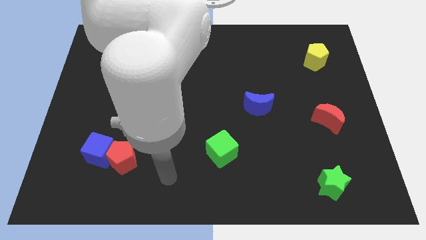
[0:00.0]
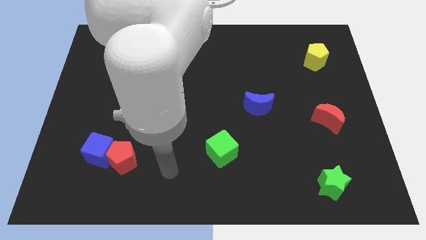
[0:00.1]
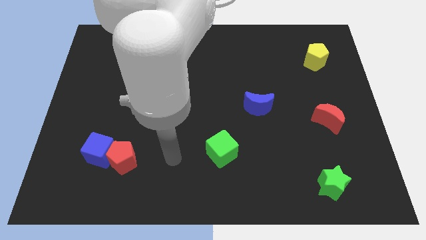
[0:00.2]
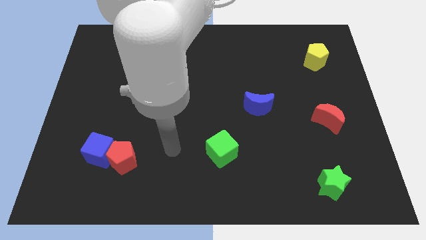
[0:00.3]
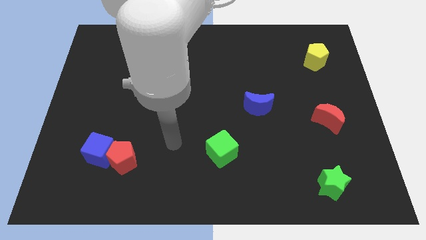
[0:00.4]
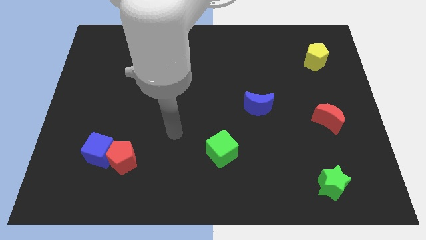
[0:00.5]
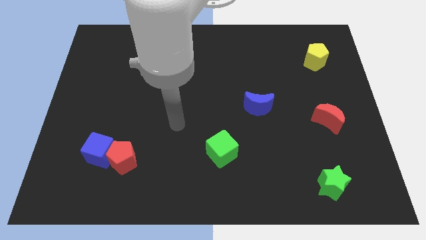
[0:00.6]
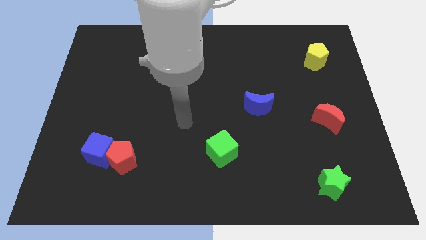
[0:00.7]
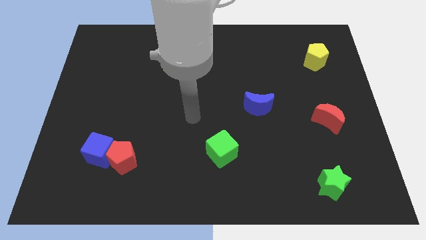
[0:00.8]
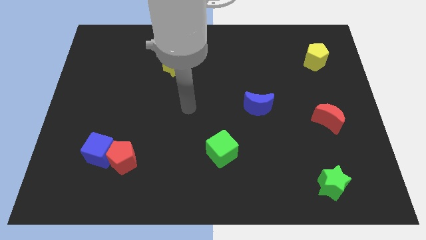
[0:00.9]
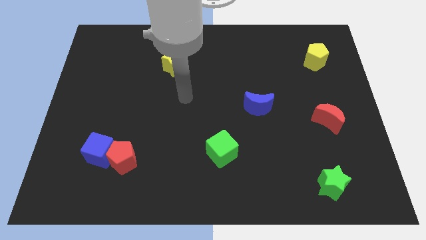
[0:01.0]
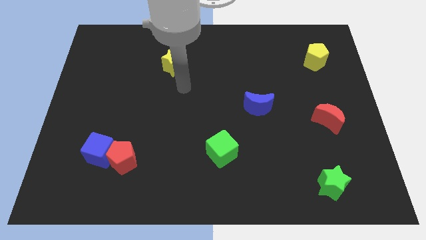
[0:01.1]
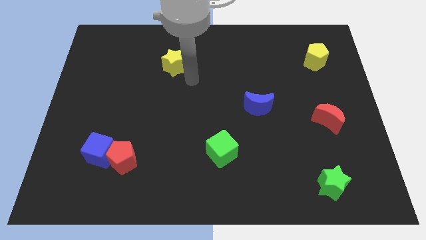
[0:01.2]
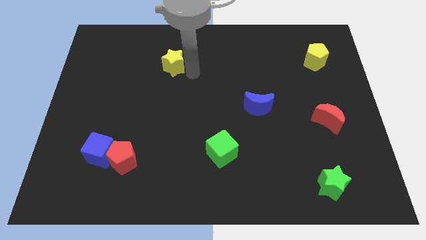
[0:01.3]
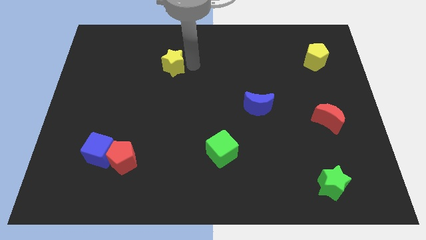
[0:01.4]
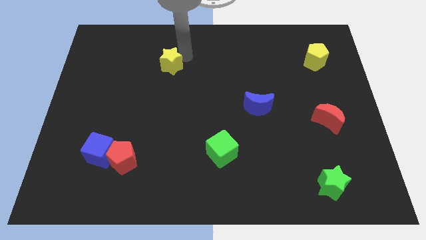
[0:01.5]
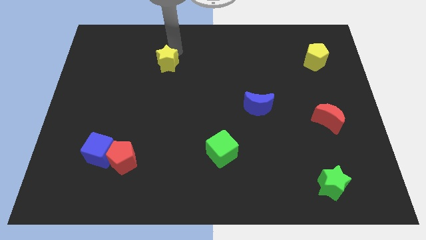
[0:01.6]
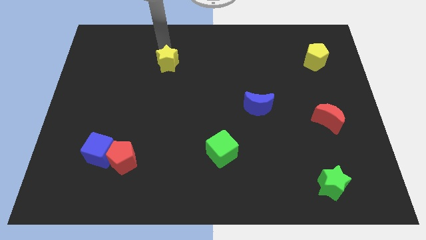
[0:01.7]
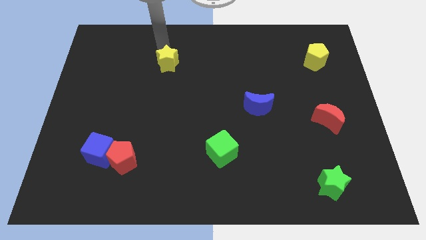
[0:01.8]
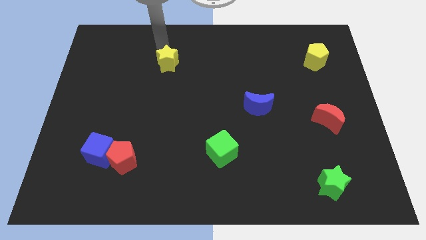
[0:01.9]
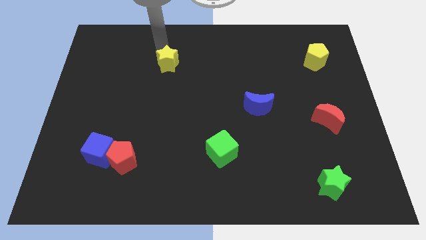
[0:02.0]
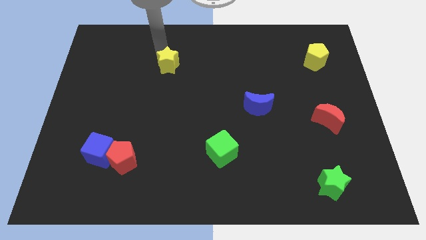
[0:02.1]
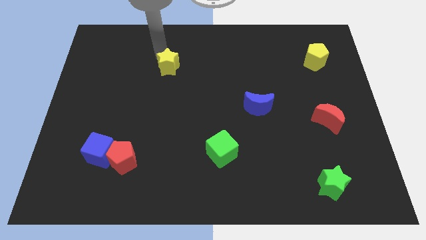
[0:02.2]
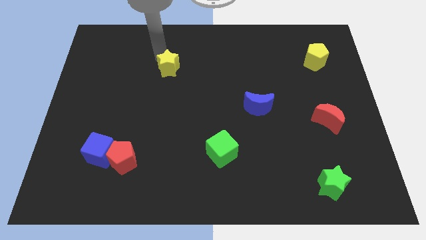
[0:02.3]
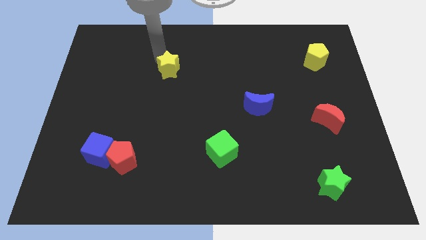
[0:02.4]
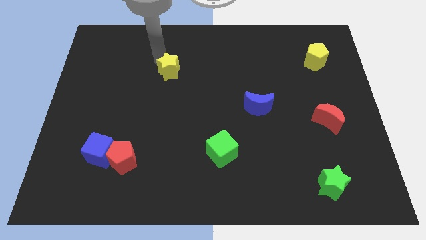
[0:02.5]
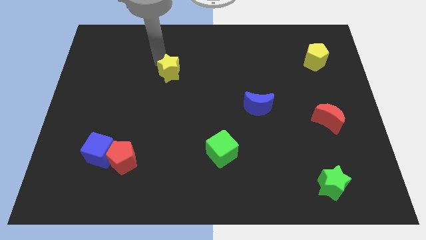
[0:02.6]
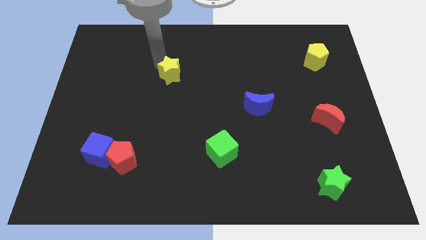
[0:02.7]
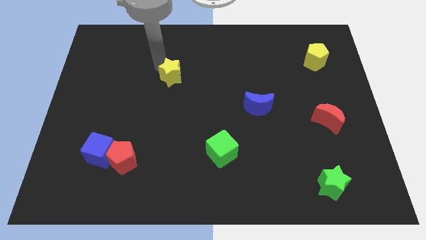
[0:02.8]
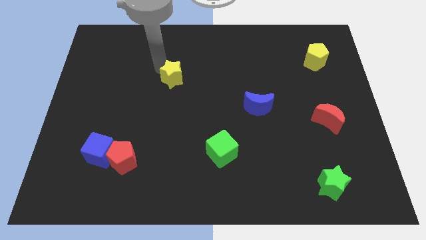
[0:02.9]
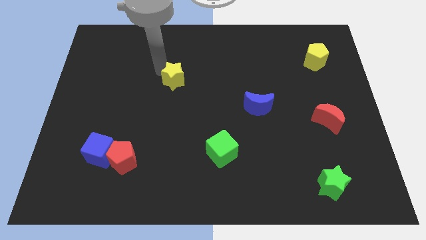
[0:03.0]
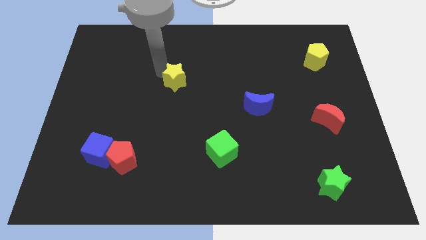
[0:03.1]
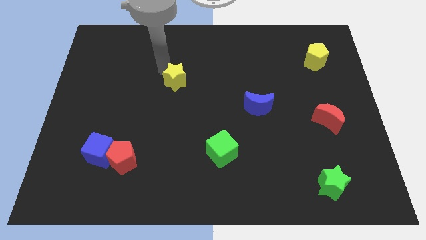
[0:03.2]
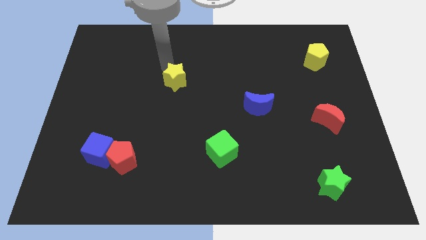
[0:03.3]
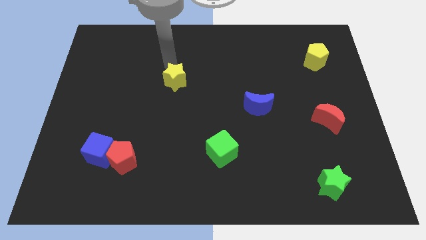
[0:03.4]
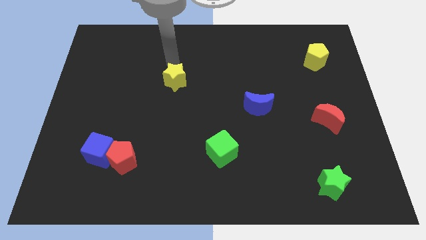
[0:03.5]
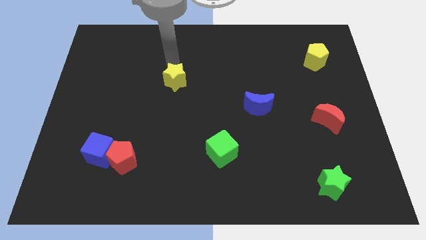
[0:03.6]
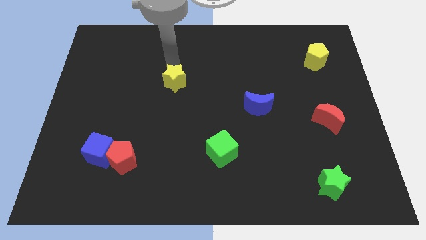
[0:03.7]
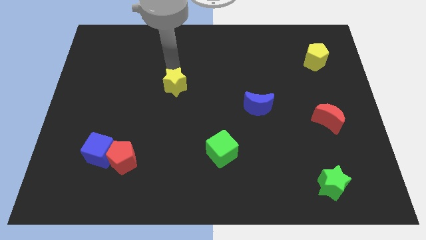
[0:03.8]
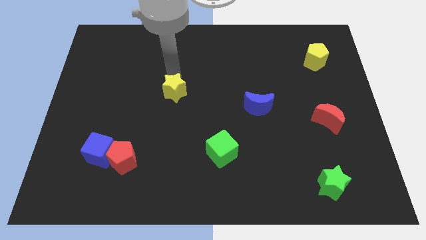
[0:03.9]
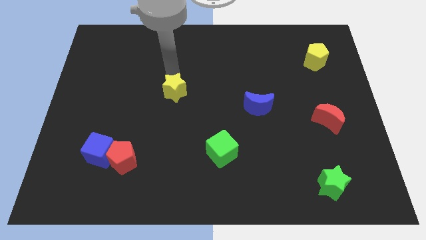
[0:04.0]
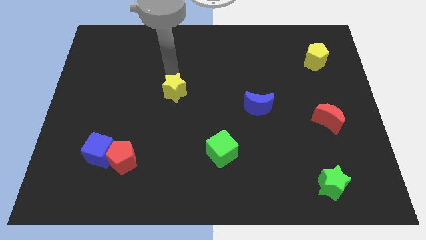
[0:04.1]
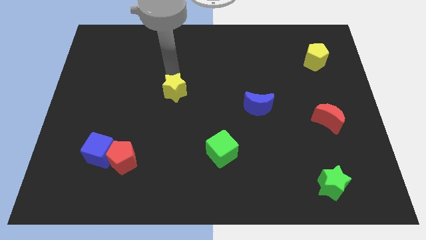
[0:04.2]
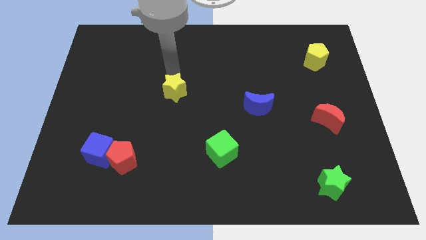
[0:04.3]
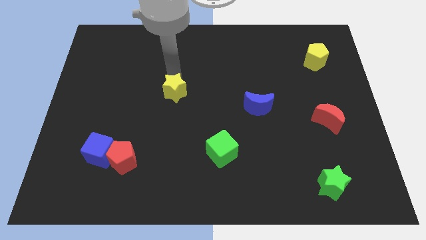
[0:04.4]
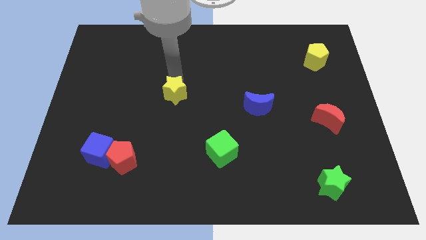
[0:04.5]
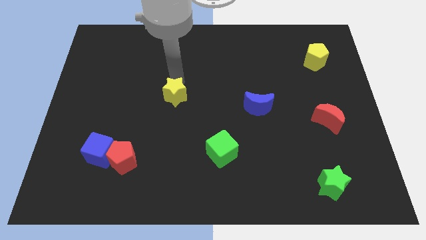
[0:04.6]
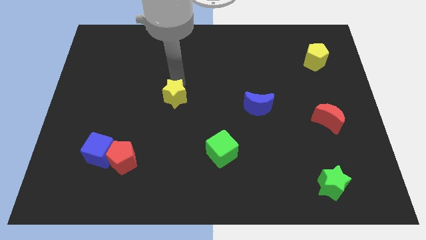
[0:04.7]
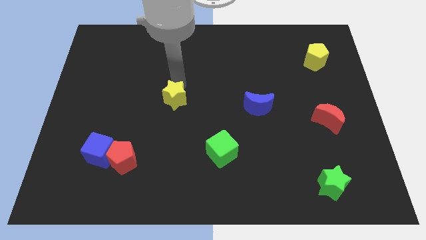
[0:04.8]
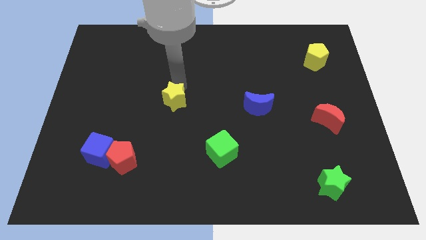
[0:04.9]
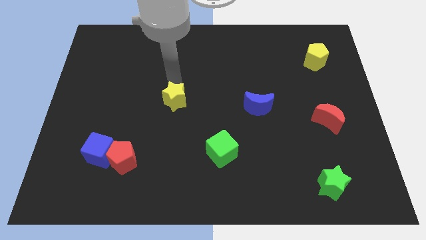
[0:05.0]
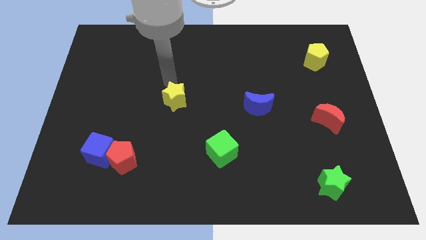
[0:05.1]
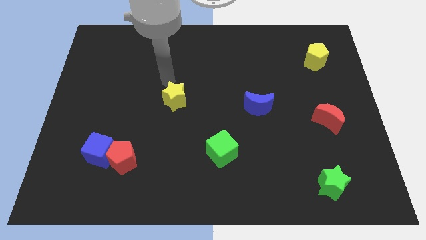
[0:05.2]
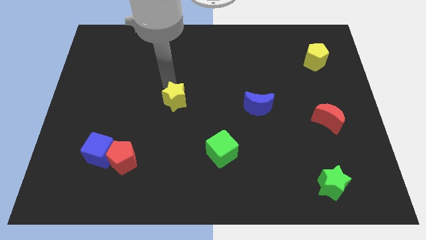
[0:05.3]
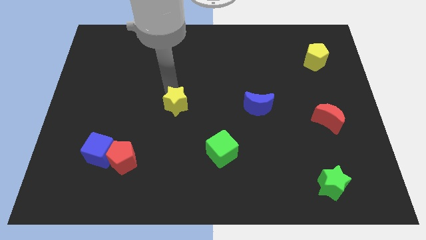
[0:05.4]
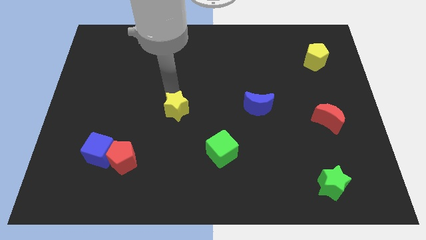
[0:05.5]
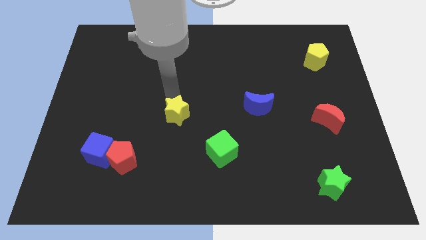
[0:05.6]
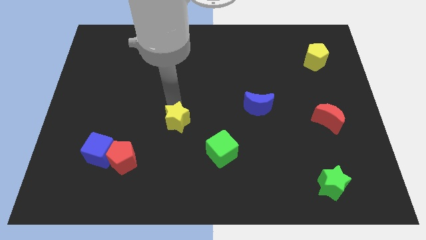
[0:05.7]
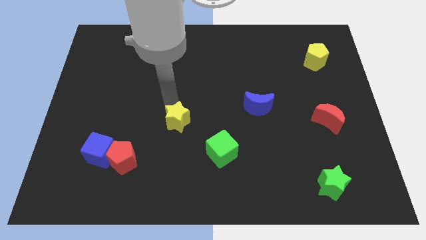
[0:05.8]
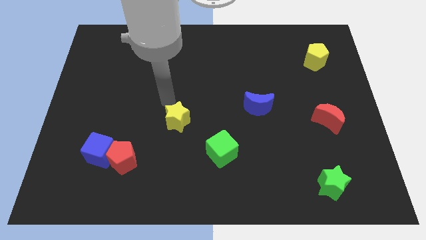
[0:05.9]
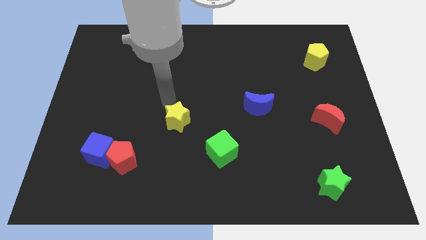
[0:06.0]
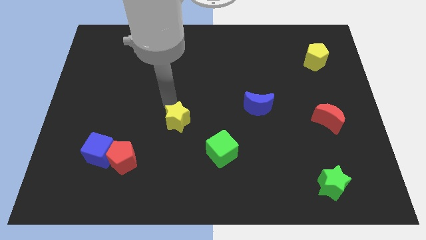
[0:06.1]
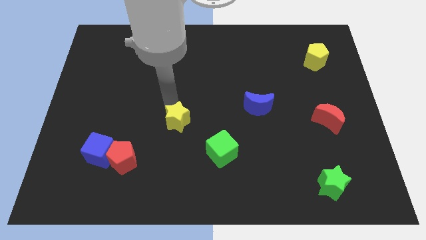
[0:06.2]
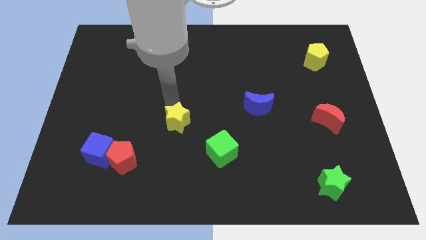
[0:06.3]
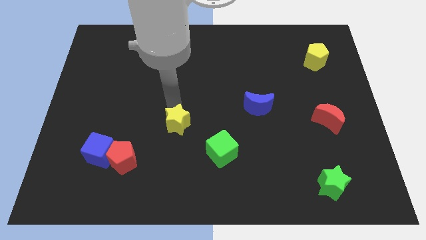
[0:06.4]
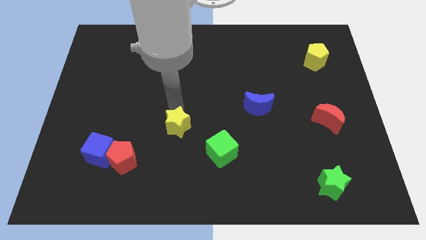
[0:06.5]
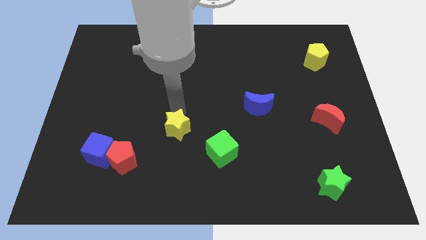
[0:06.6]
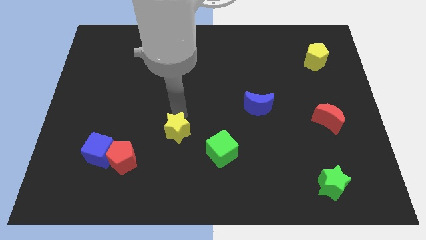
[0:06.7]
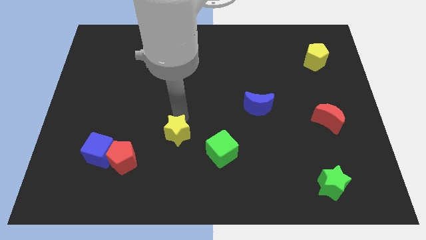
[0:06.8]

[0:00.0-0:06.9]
put the yellow star just left of the green cube

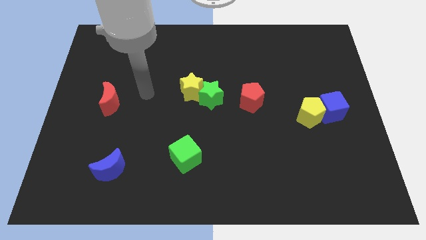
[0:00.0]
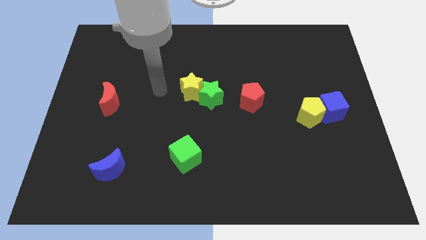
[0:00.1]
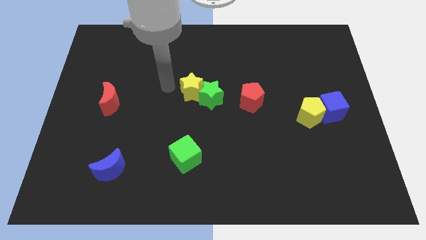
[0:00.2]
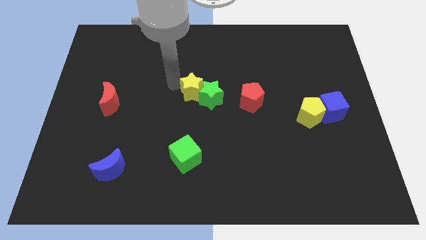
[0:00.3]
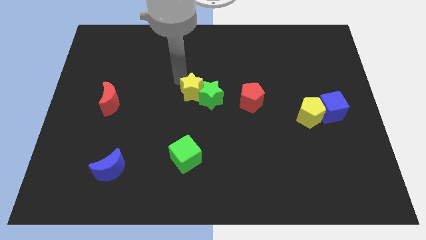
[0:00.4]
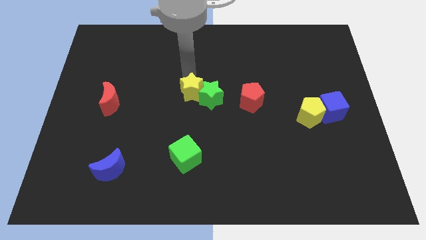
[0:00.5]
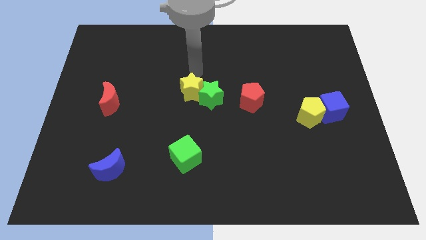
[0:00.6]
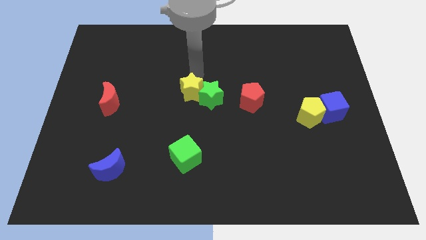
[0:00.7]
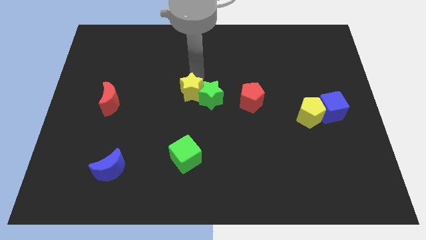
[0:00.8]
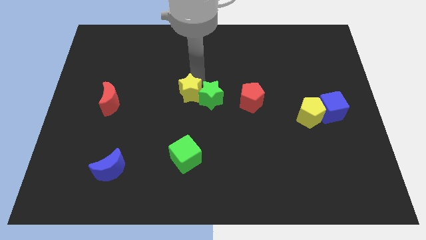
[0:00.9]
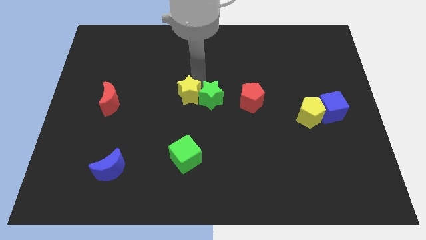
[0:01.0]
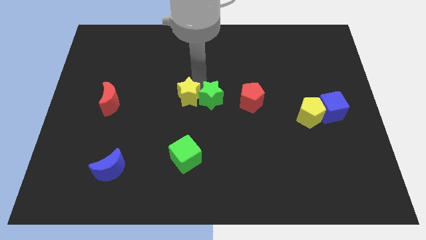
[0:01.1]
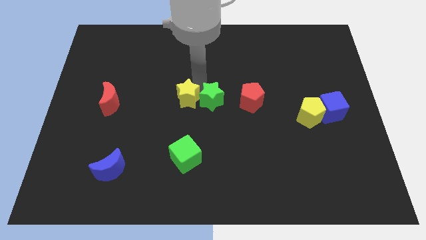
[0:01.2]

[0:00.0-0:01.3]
move the yellow star to the top side of the green cube
